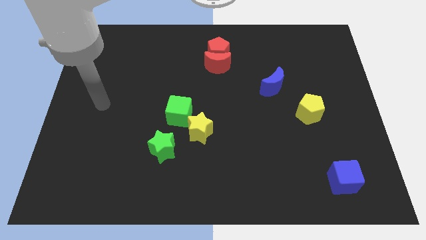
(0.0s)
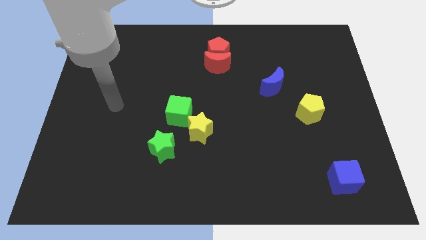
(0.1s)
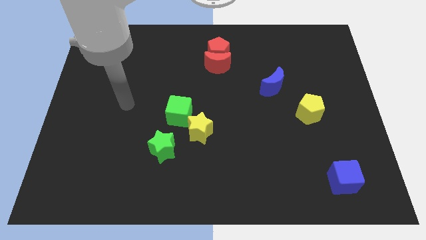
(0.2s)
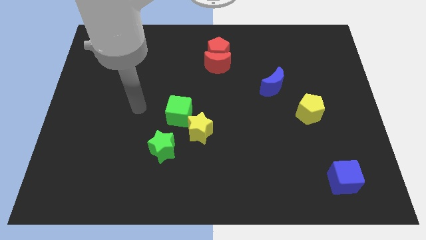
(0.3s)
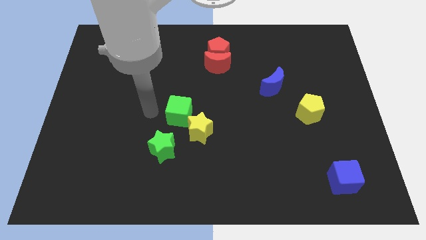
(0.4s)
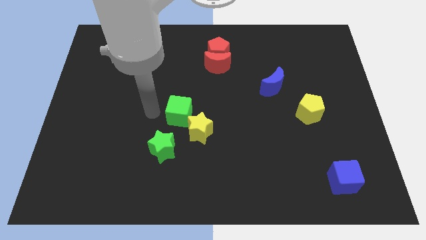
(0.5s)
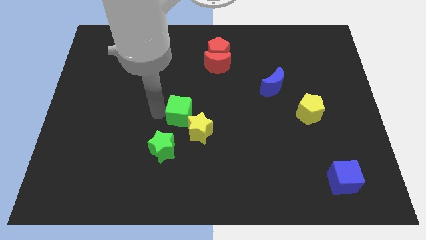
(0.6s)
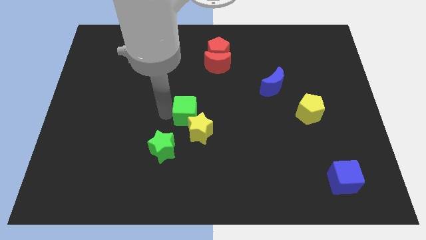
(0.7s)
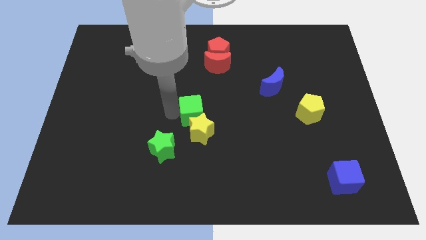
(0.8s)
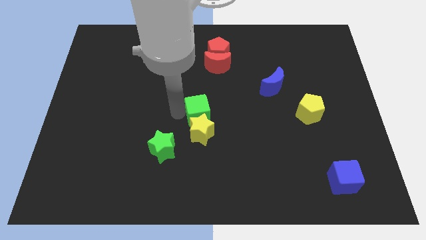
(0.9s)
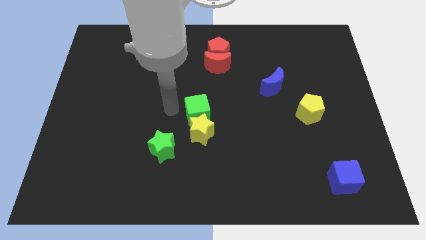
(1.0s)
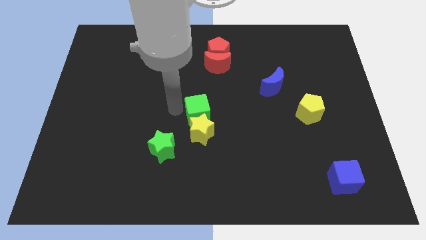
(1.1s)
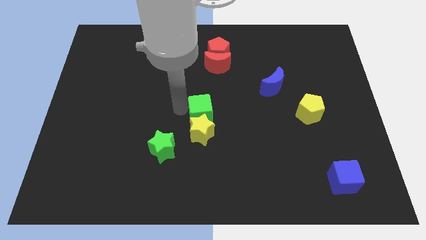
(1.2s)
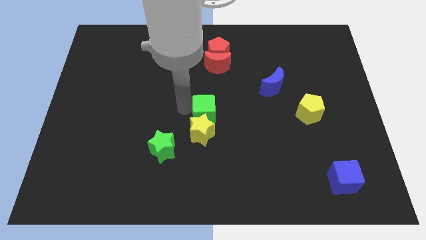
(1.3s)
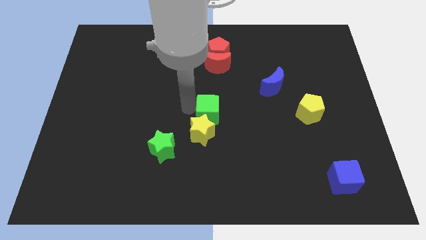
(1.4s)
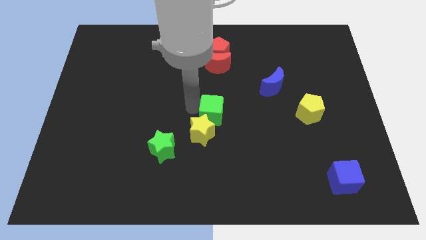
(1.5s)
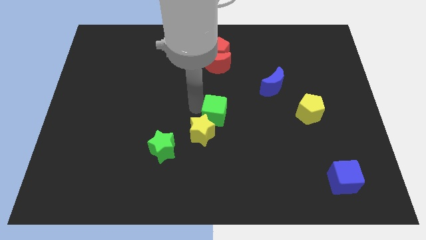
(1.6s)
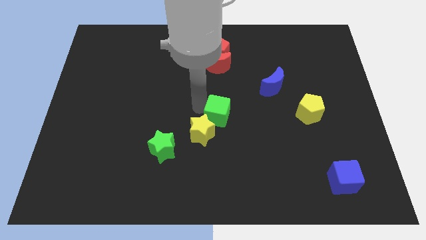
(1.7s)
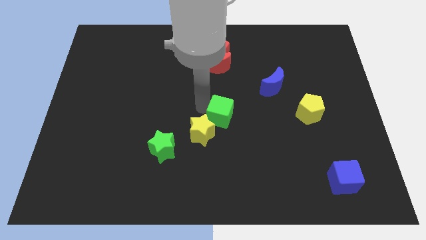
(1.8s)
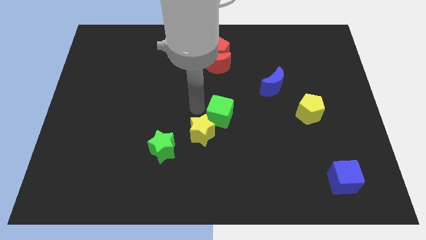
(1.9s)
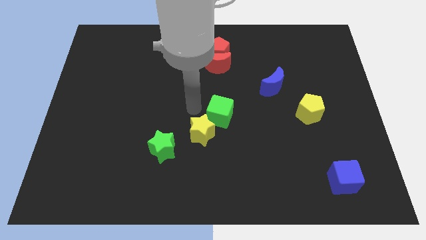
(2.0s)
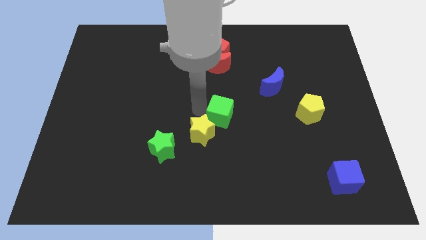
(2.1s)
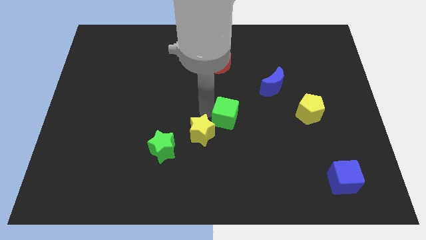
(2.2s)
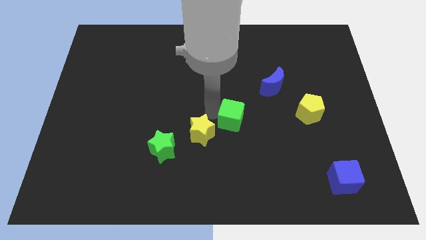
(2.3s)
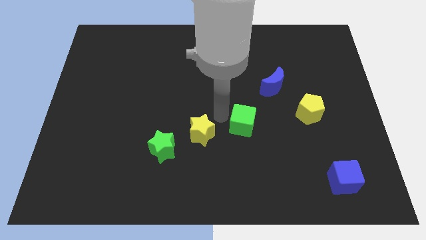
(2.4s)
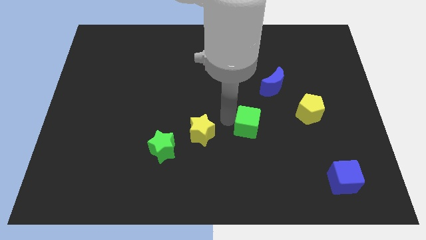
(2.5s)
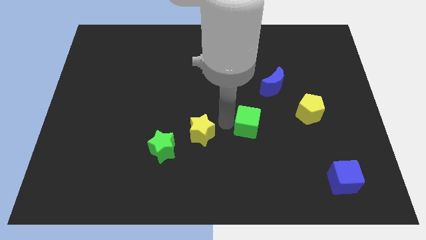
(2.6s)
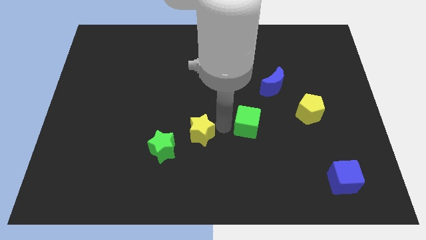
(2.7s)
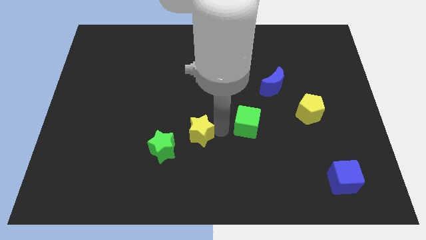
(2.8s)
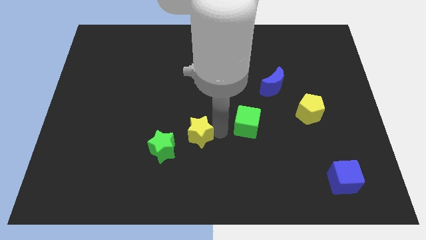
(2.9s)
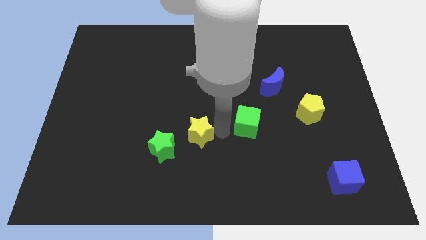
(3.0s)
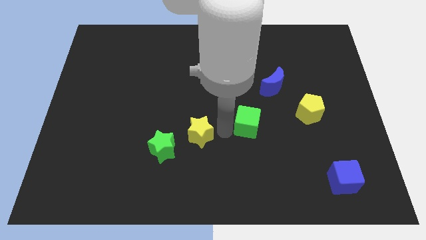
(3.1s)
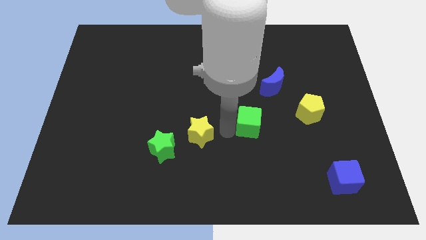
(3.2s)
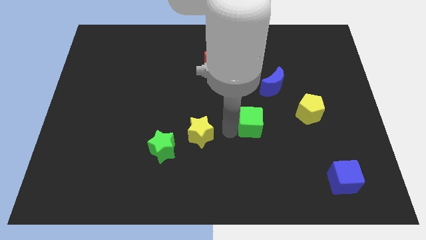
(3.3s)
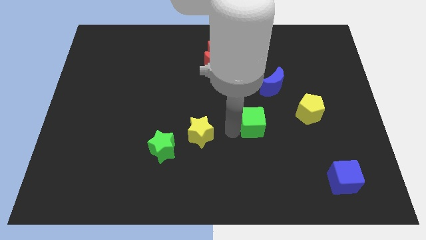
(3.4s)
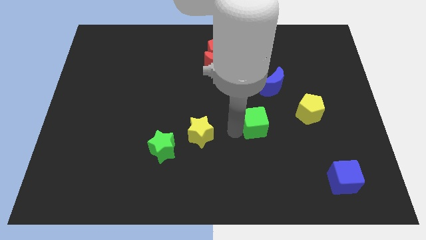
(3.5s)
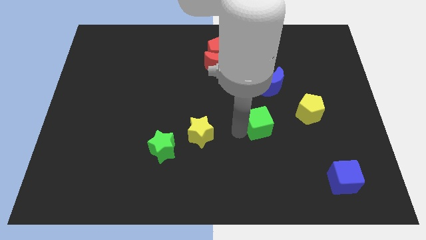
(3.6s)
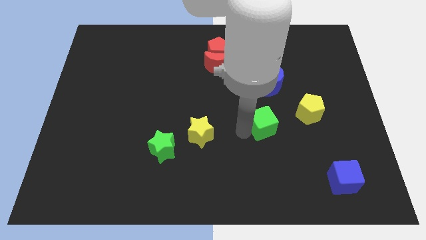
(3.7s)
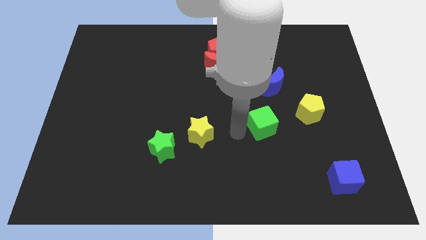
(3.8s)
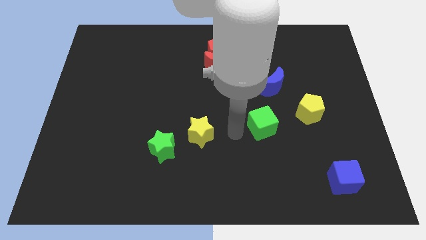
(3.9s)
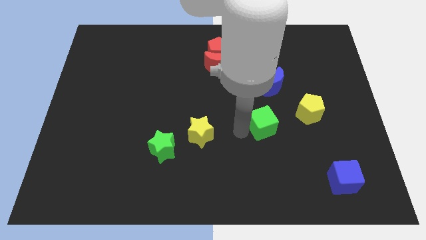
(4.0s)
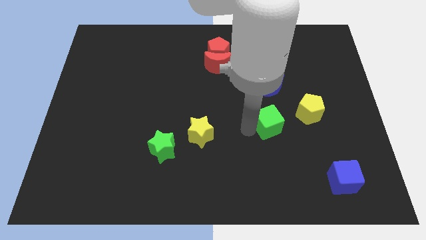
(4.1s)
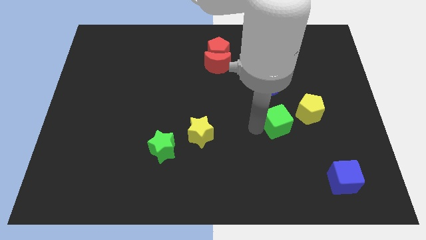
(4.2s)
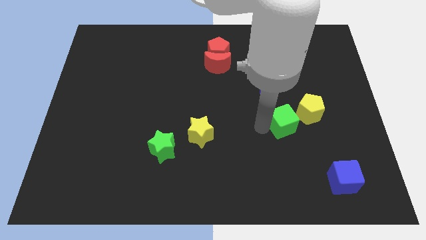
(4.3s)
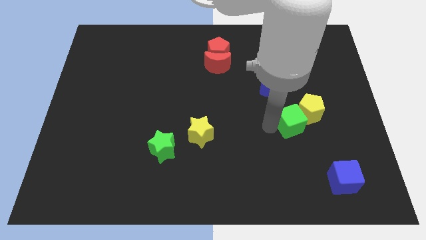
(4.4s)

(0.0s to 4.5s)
move the green cube next to the yellow pentagon

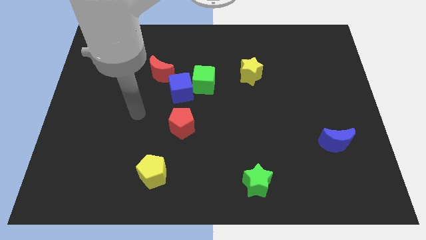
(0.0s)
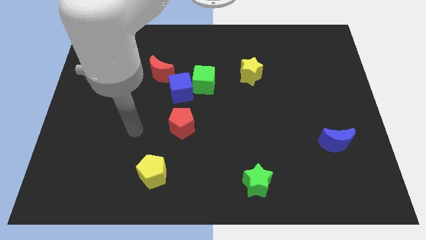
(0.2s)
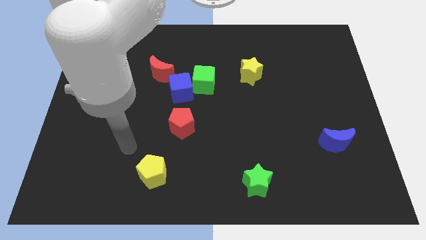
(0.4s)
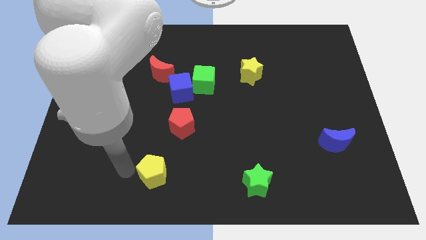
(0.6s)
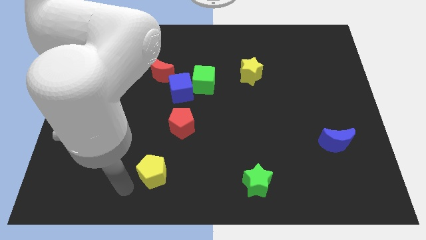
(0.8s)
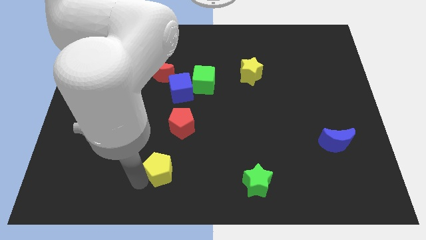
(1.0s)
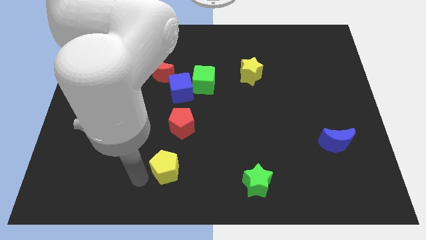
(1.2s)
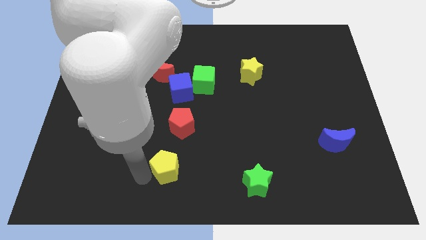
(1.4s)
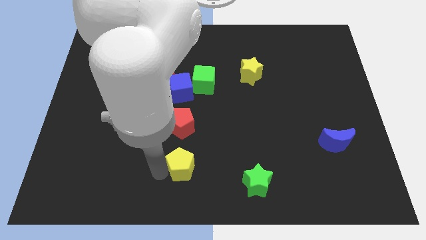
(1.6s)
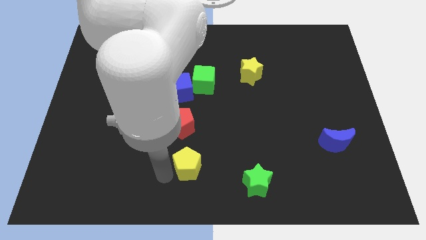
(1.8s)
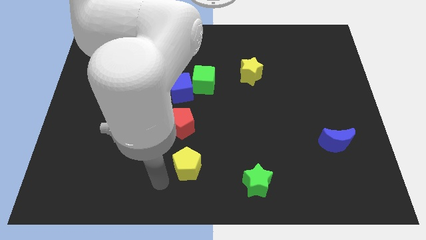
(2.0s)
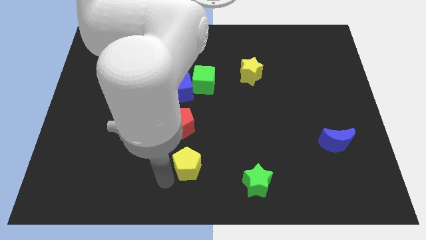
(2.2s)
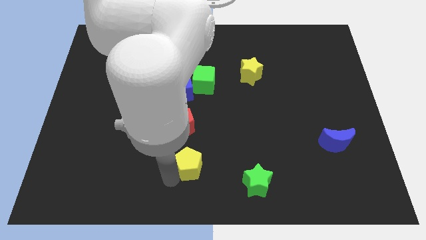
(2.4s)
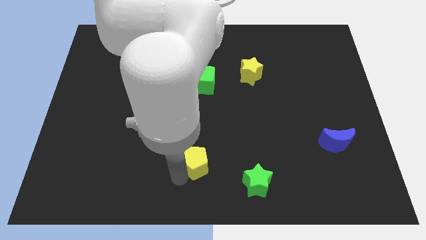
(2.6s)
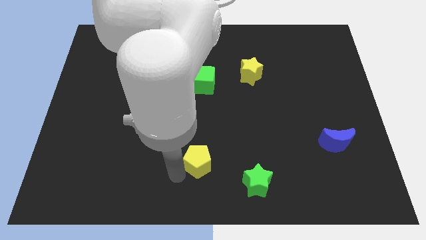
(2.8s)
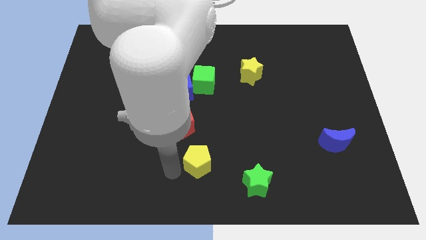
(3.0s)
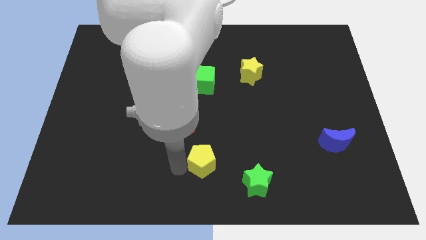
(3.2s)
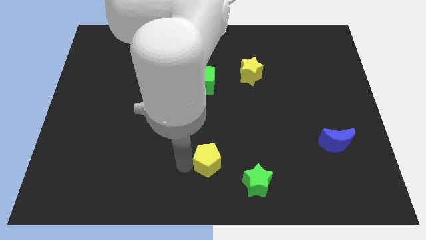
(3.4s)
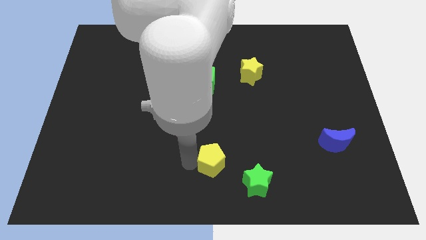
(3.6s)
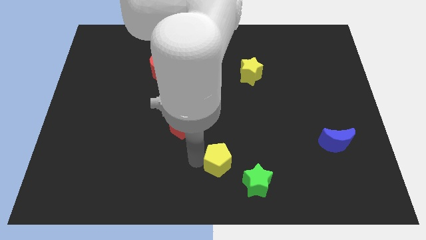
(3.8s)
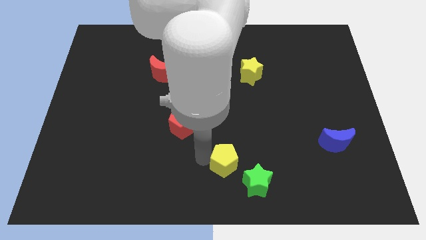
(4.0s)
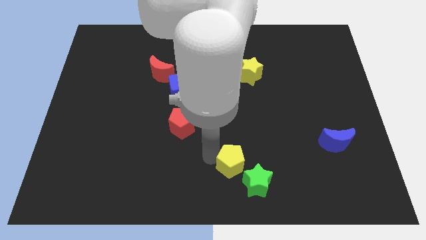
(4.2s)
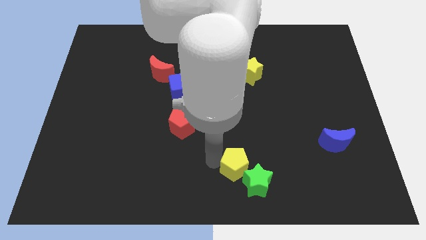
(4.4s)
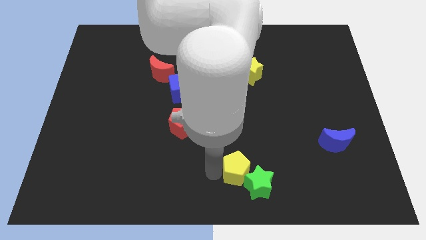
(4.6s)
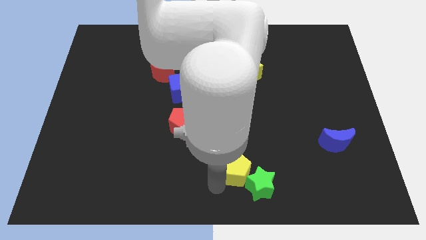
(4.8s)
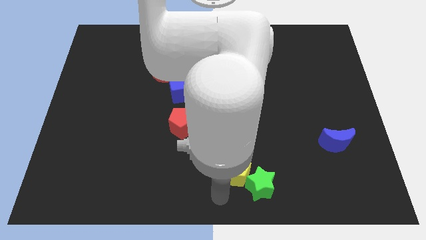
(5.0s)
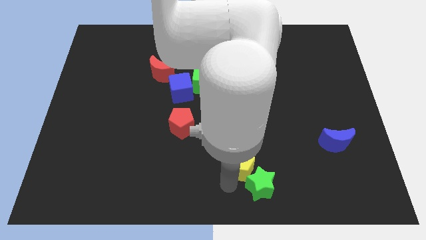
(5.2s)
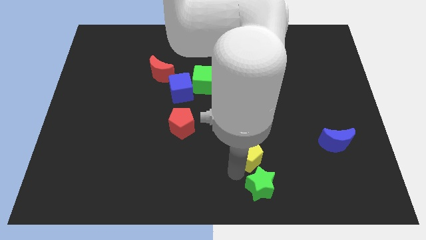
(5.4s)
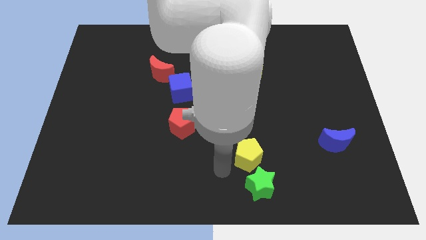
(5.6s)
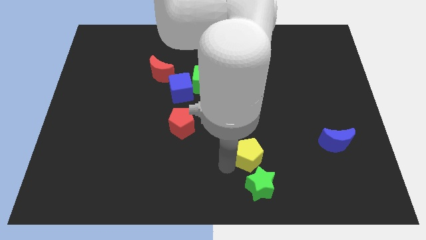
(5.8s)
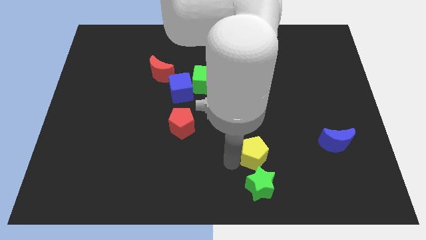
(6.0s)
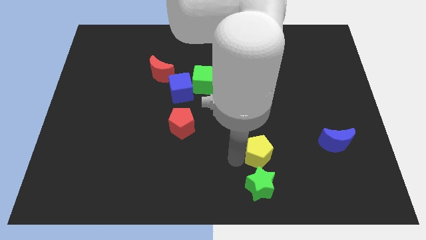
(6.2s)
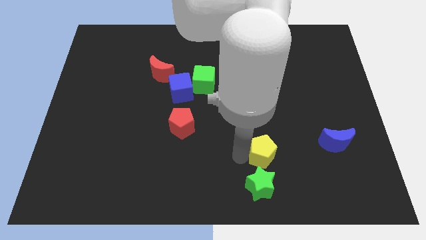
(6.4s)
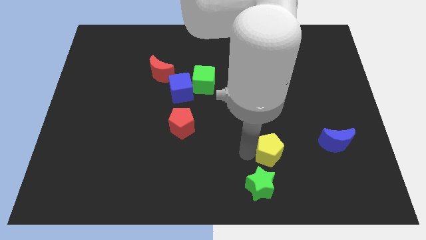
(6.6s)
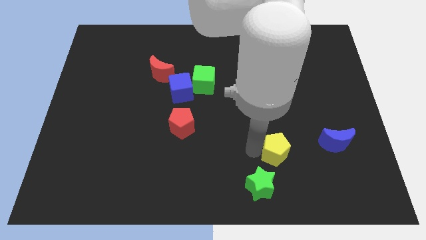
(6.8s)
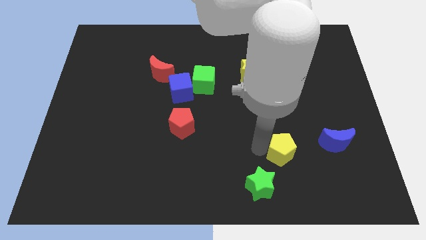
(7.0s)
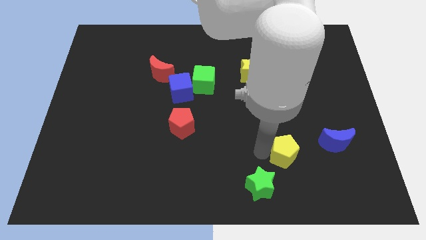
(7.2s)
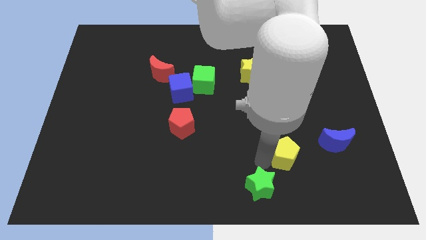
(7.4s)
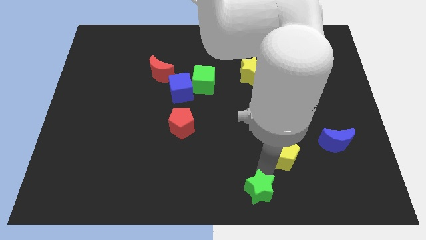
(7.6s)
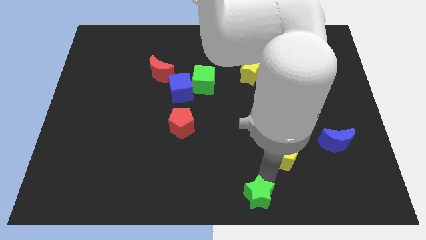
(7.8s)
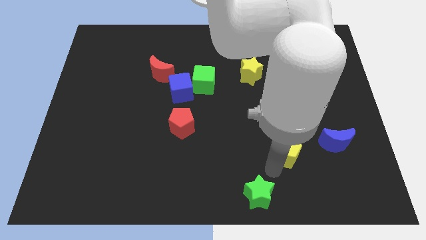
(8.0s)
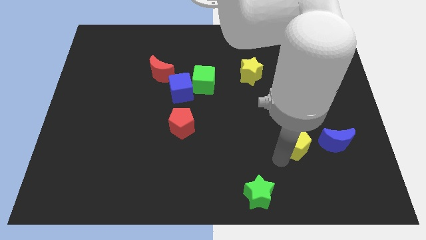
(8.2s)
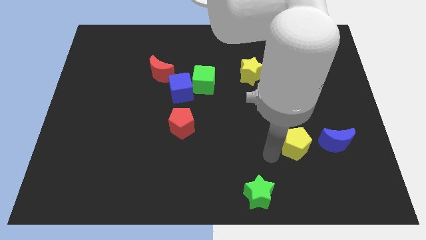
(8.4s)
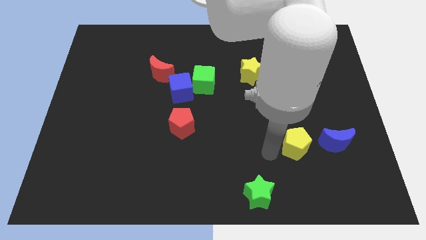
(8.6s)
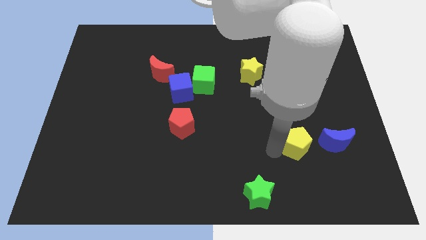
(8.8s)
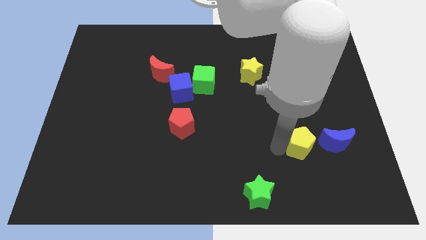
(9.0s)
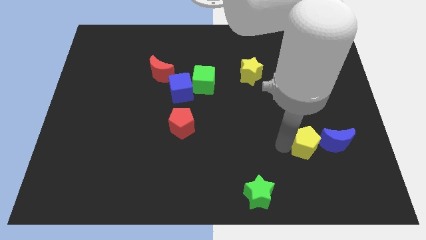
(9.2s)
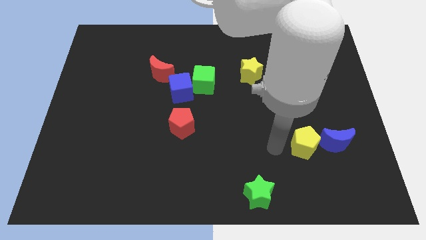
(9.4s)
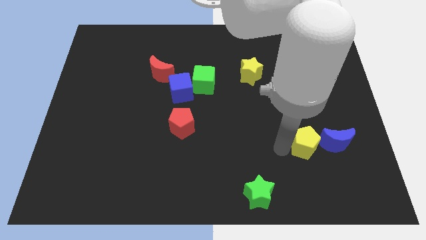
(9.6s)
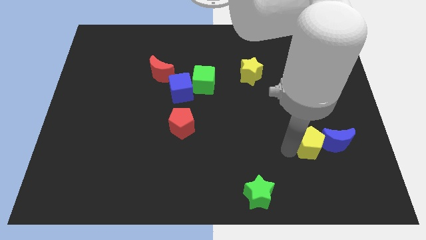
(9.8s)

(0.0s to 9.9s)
put the yellow pentagon close to the blue moon
